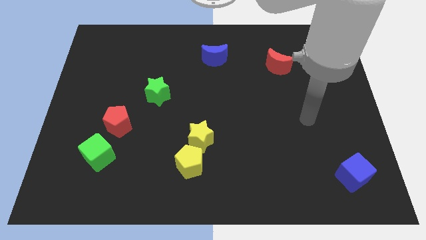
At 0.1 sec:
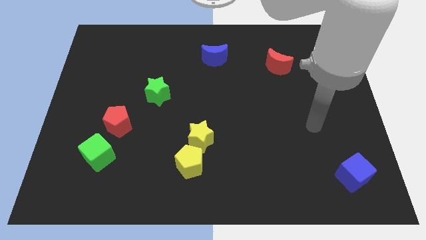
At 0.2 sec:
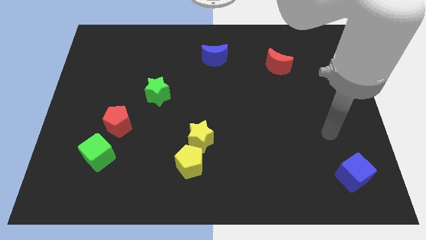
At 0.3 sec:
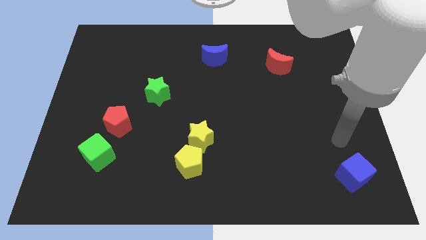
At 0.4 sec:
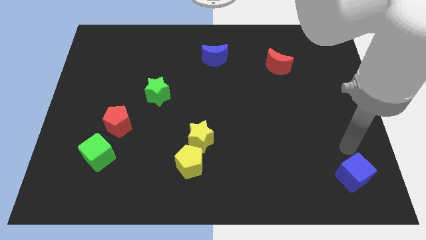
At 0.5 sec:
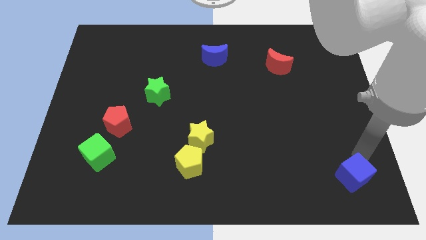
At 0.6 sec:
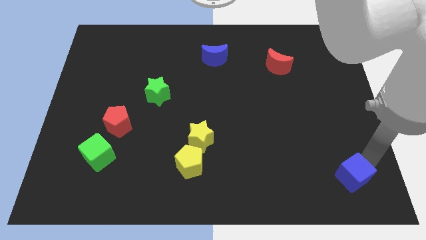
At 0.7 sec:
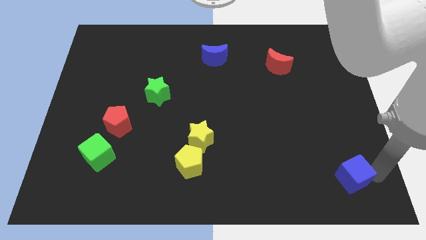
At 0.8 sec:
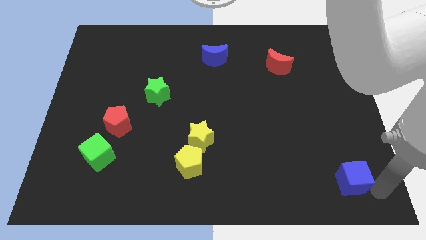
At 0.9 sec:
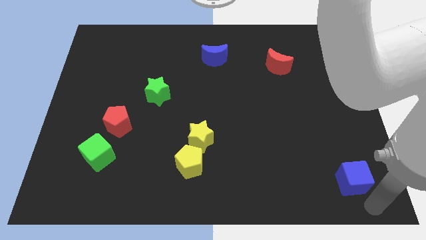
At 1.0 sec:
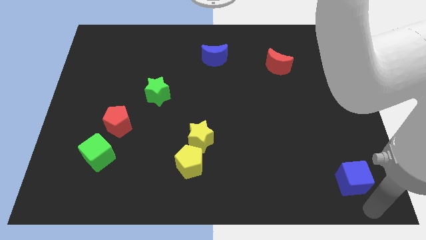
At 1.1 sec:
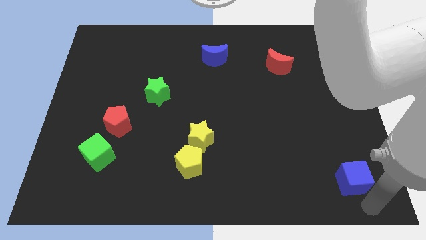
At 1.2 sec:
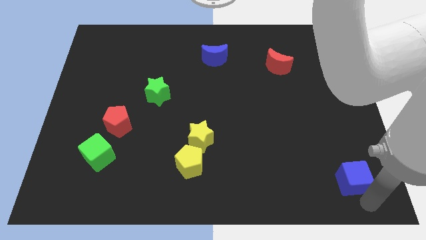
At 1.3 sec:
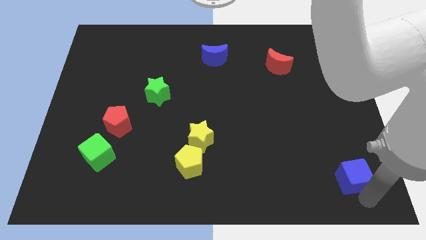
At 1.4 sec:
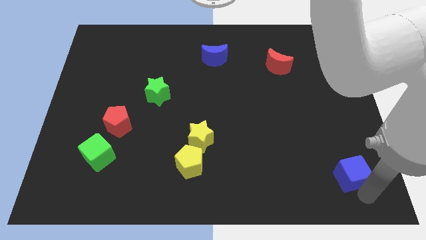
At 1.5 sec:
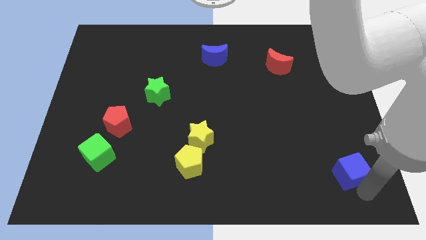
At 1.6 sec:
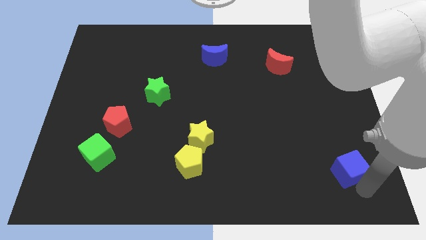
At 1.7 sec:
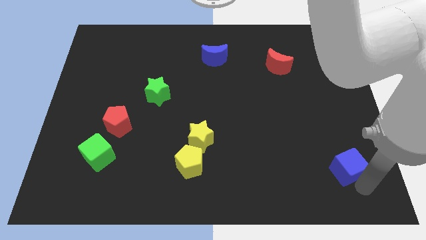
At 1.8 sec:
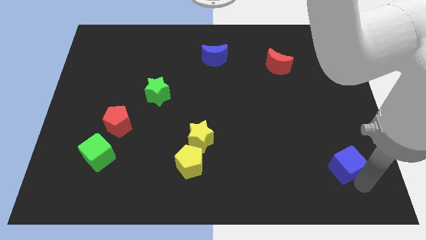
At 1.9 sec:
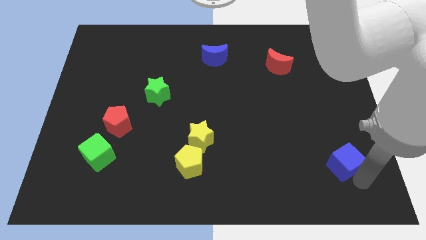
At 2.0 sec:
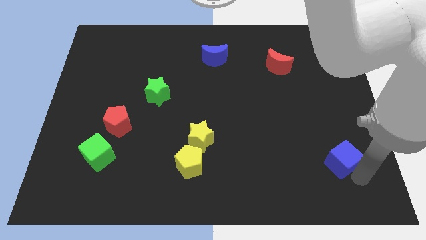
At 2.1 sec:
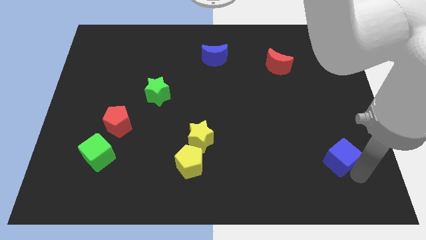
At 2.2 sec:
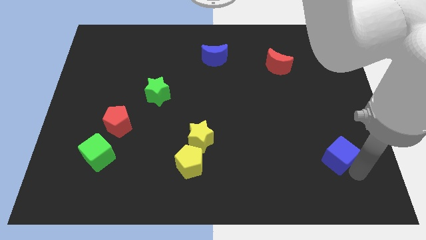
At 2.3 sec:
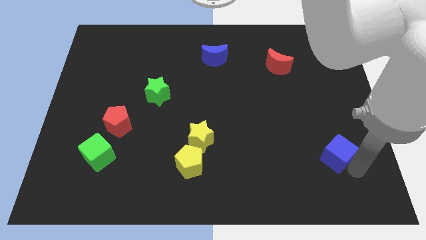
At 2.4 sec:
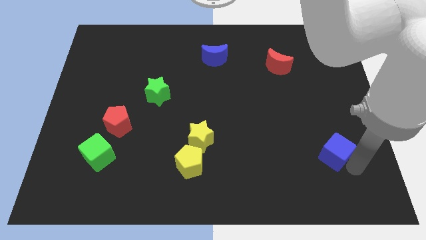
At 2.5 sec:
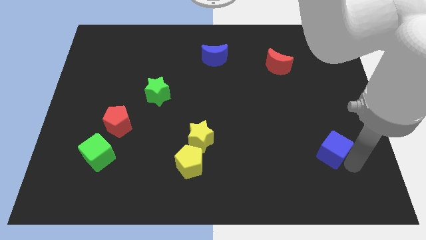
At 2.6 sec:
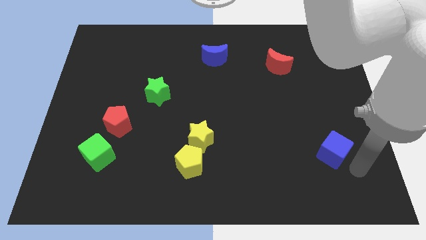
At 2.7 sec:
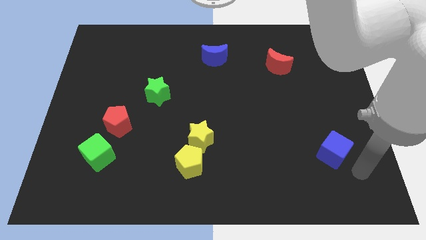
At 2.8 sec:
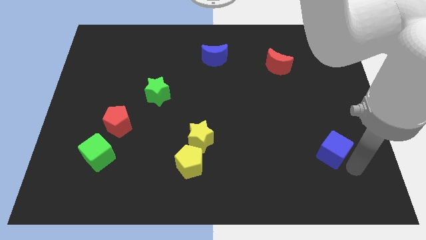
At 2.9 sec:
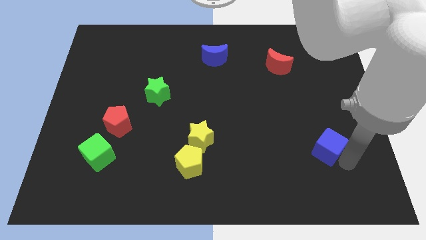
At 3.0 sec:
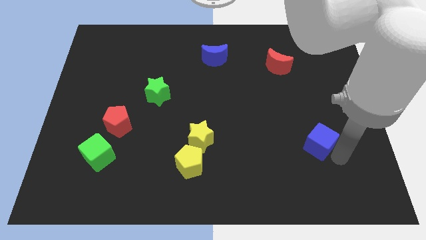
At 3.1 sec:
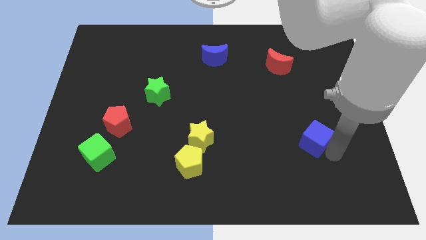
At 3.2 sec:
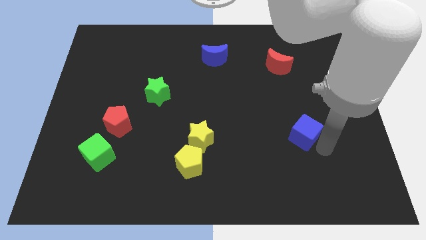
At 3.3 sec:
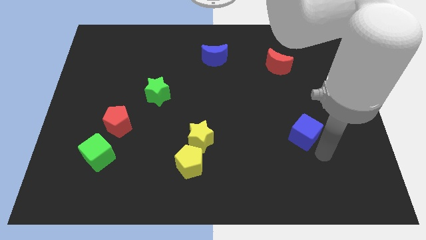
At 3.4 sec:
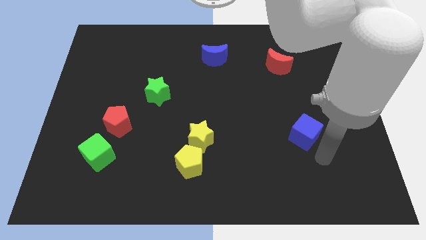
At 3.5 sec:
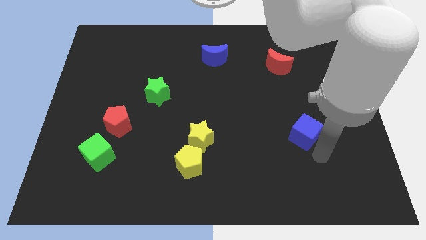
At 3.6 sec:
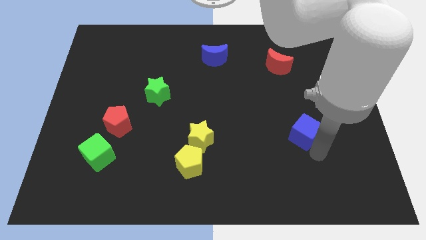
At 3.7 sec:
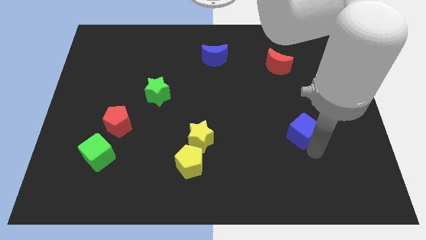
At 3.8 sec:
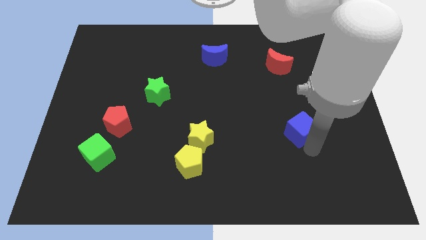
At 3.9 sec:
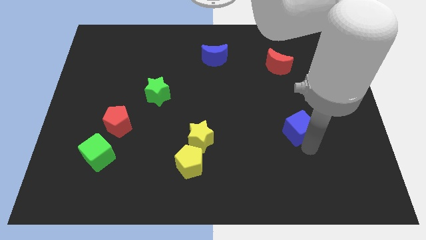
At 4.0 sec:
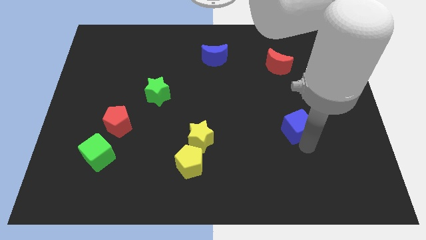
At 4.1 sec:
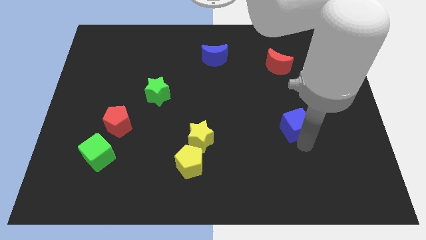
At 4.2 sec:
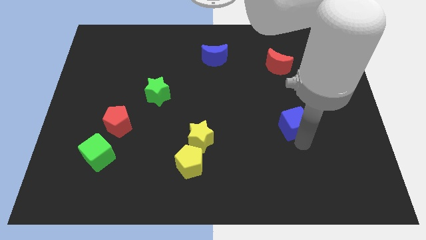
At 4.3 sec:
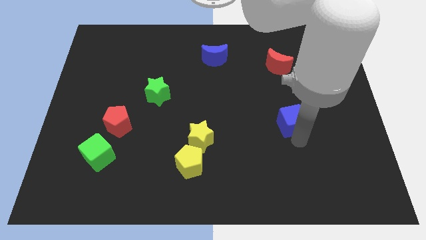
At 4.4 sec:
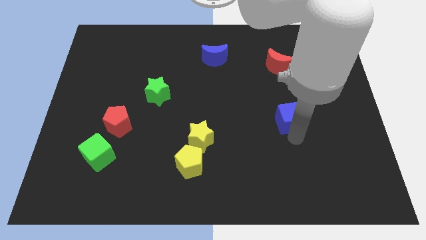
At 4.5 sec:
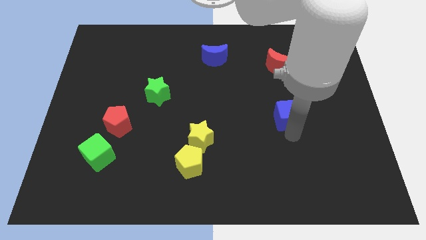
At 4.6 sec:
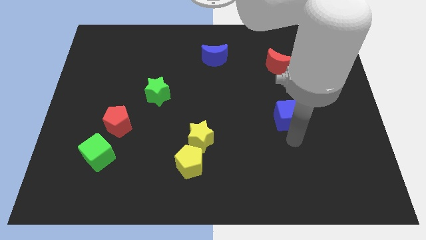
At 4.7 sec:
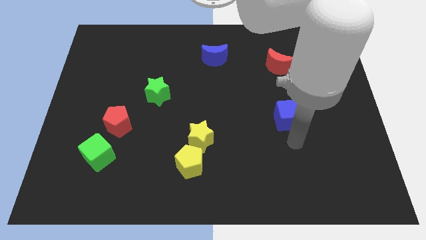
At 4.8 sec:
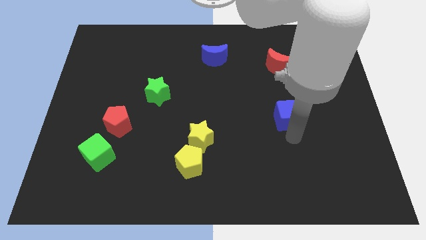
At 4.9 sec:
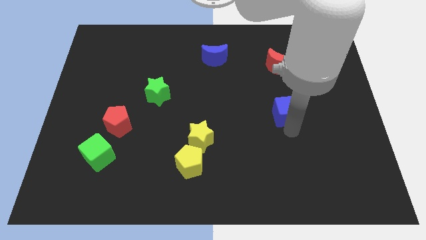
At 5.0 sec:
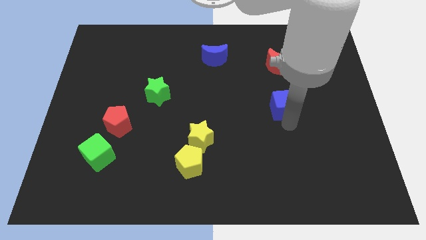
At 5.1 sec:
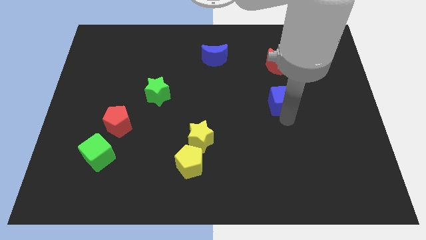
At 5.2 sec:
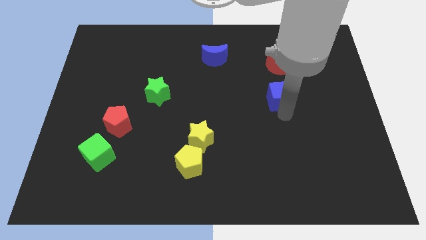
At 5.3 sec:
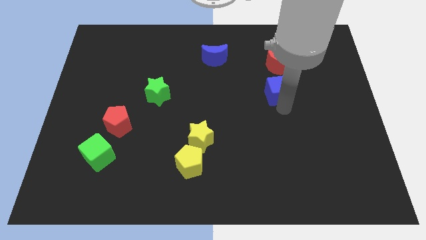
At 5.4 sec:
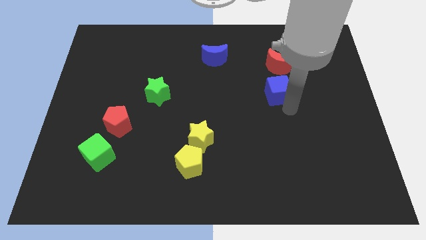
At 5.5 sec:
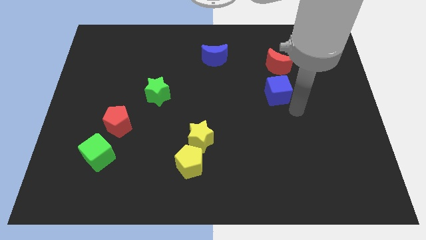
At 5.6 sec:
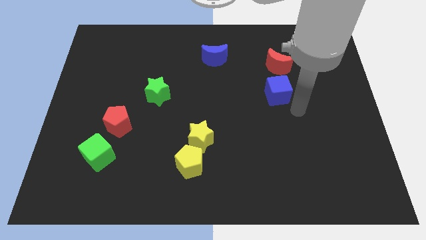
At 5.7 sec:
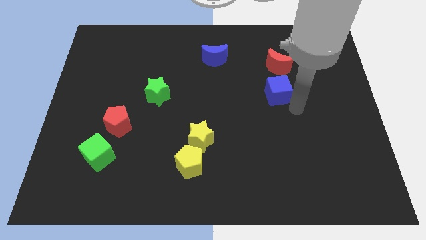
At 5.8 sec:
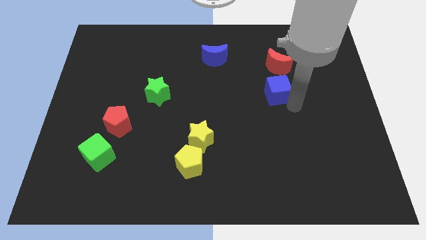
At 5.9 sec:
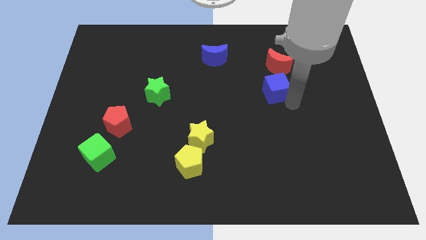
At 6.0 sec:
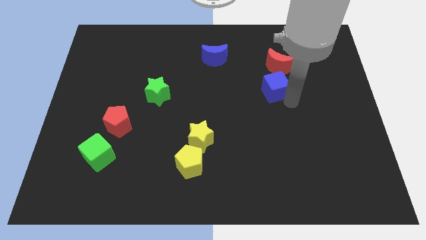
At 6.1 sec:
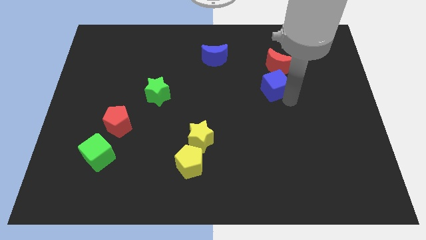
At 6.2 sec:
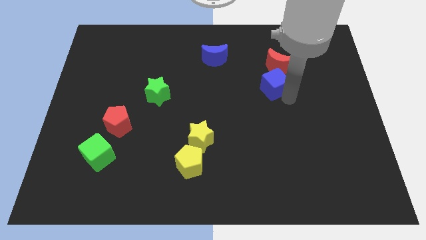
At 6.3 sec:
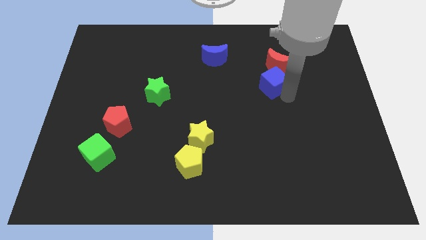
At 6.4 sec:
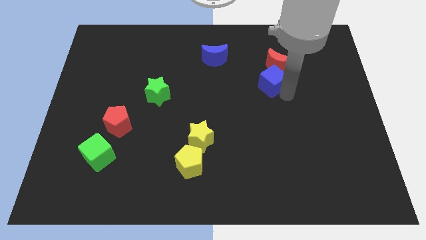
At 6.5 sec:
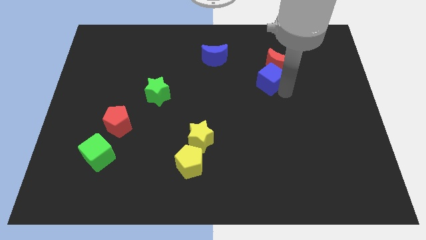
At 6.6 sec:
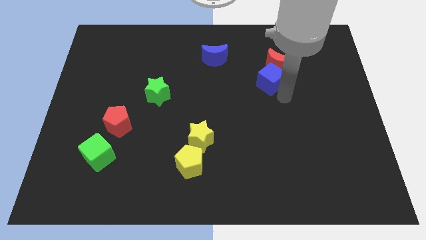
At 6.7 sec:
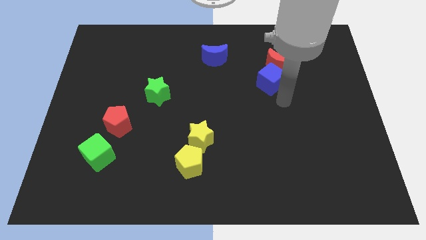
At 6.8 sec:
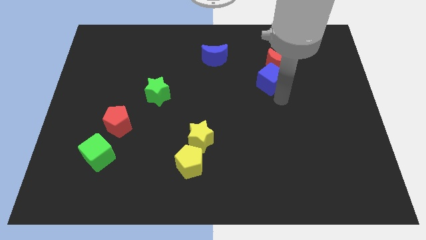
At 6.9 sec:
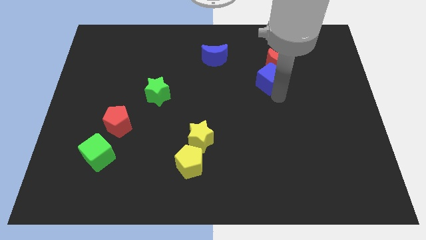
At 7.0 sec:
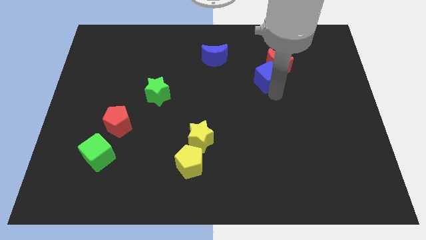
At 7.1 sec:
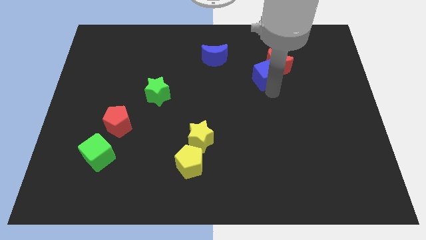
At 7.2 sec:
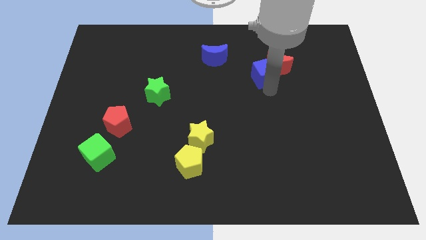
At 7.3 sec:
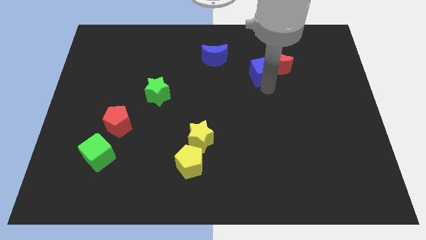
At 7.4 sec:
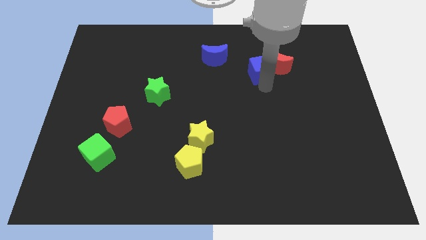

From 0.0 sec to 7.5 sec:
push the blue cube to the right of the blue moon

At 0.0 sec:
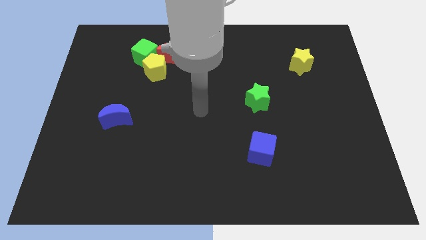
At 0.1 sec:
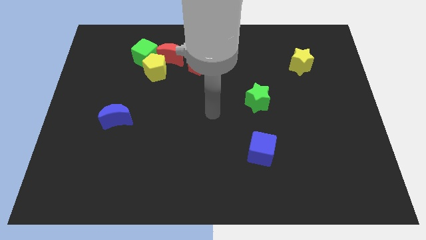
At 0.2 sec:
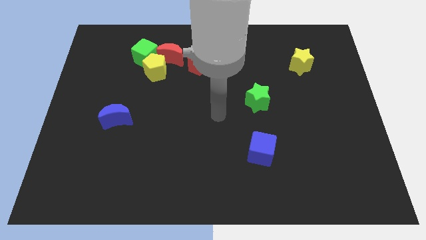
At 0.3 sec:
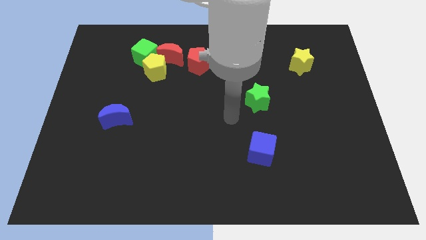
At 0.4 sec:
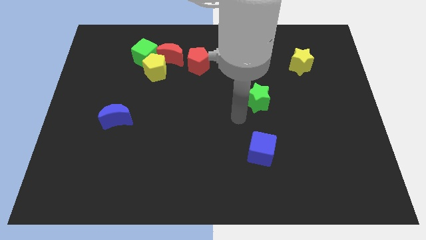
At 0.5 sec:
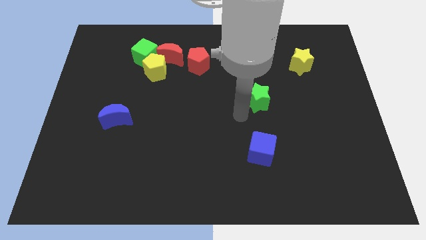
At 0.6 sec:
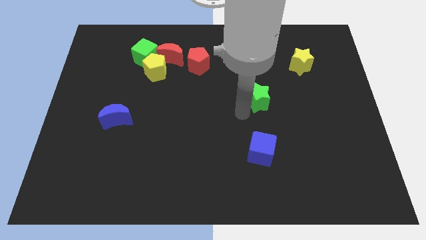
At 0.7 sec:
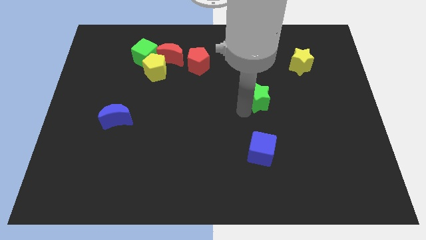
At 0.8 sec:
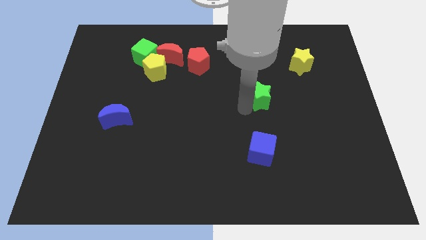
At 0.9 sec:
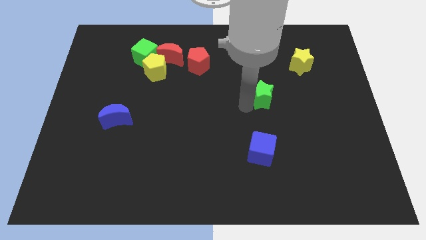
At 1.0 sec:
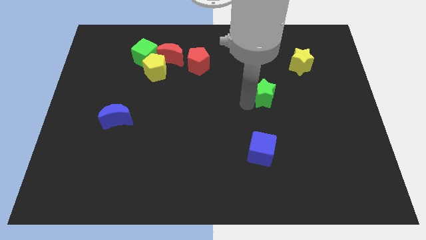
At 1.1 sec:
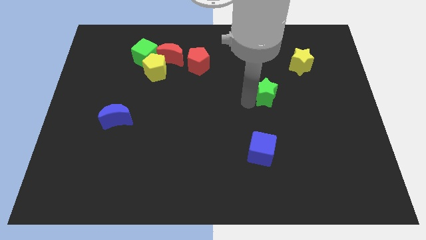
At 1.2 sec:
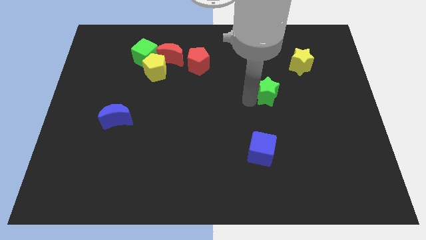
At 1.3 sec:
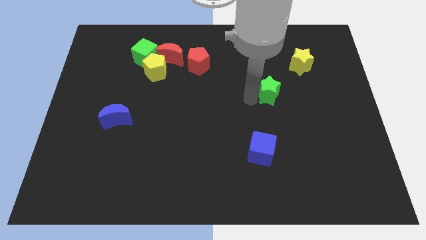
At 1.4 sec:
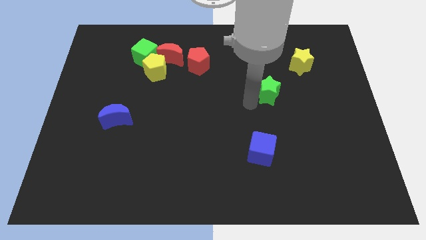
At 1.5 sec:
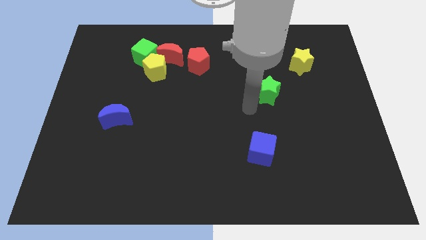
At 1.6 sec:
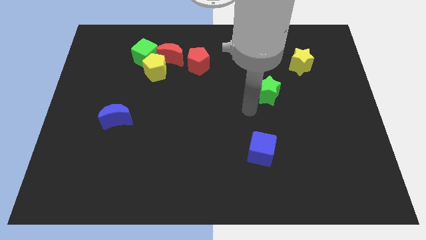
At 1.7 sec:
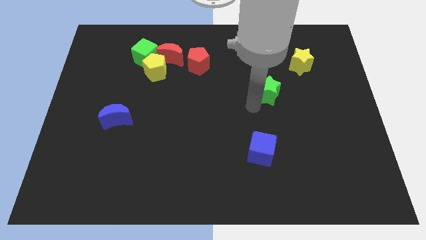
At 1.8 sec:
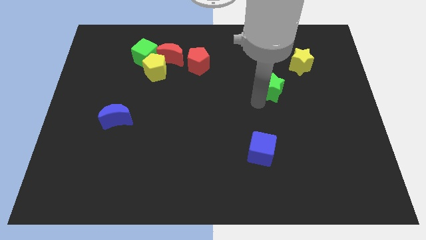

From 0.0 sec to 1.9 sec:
move the green star diagonally down and to the left of the yellow star
